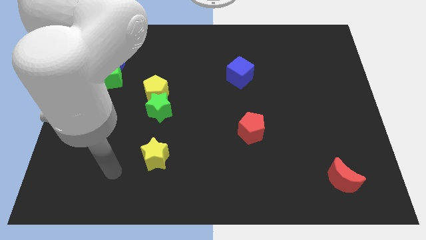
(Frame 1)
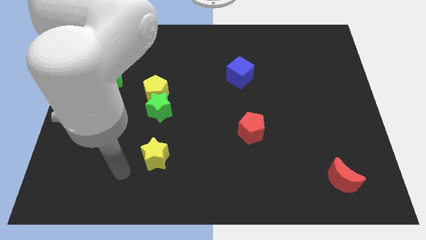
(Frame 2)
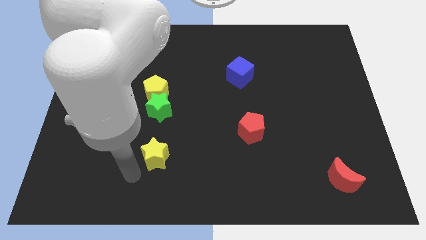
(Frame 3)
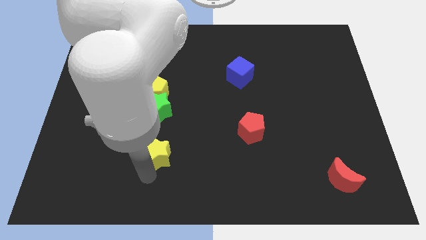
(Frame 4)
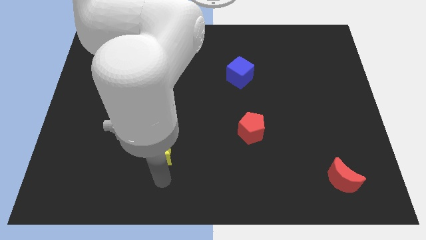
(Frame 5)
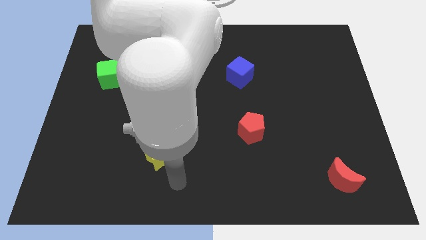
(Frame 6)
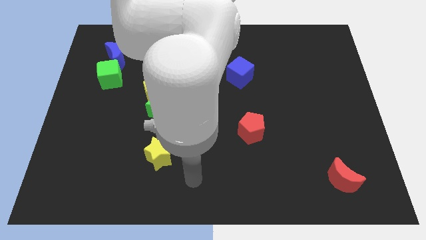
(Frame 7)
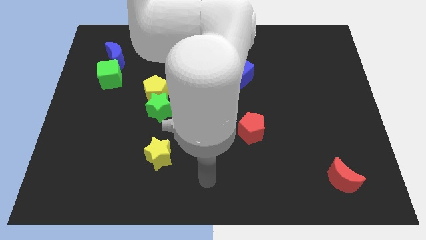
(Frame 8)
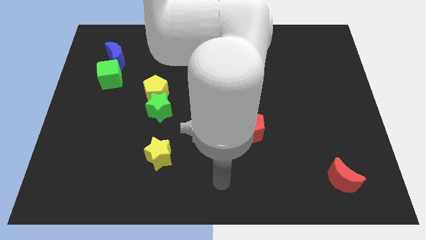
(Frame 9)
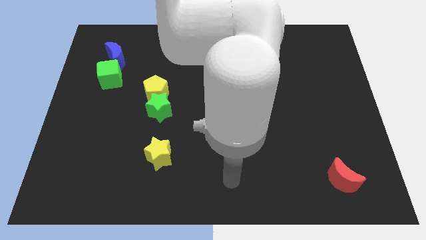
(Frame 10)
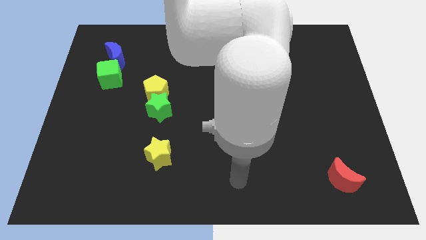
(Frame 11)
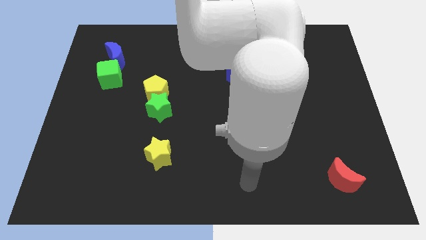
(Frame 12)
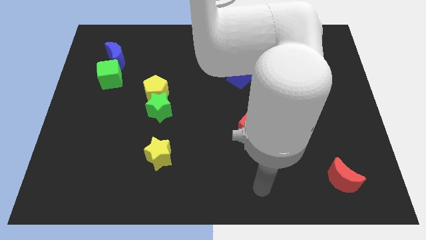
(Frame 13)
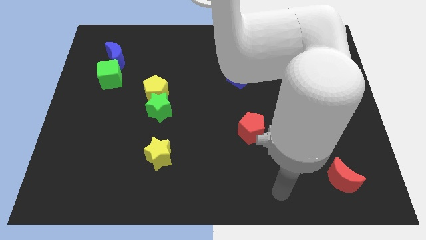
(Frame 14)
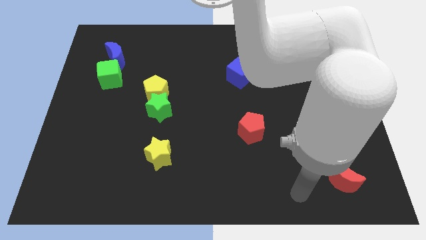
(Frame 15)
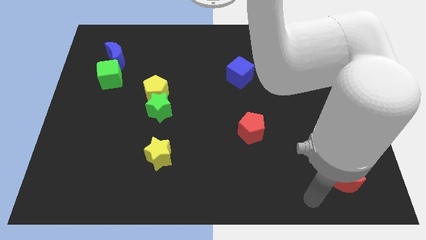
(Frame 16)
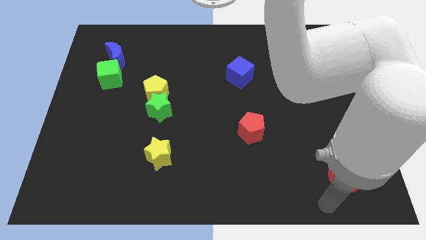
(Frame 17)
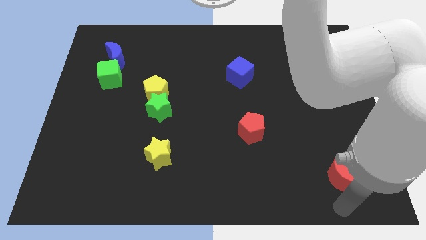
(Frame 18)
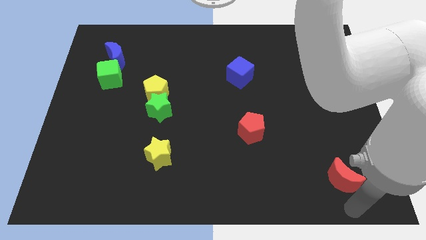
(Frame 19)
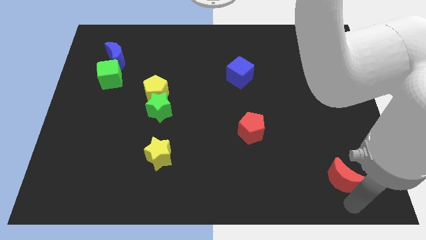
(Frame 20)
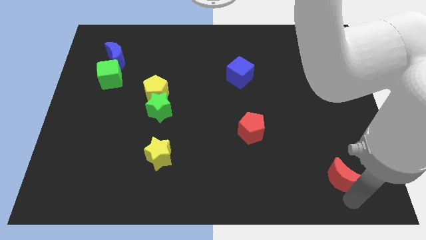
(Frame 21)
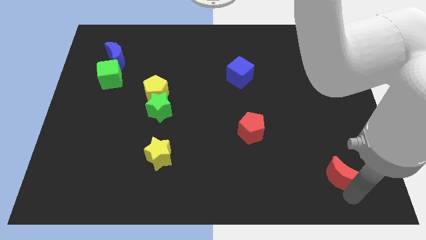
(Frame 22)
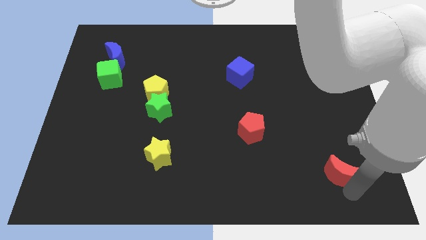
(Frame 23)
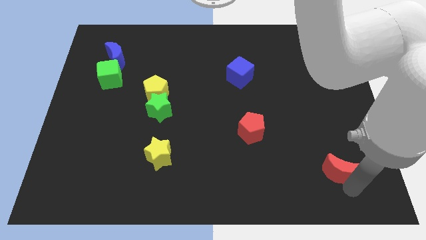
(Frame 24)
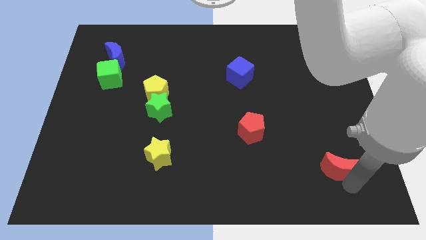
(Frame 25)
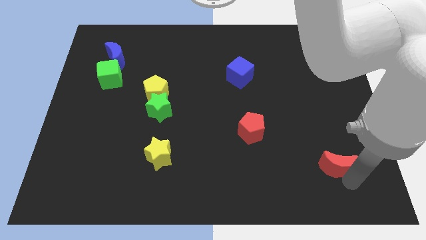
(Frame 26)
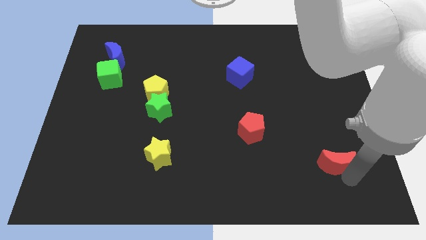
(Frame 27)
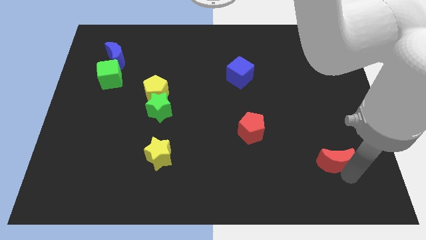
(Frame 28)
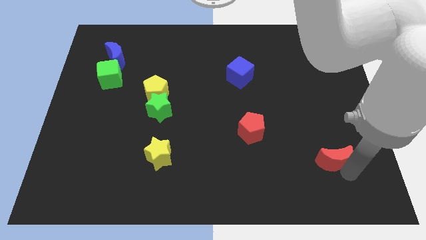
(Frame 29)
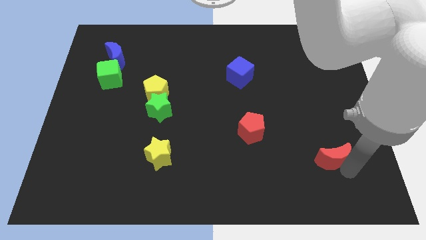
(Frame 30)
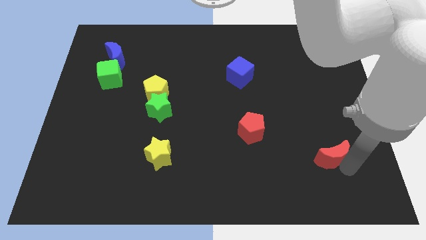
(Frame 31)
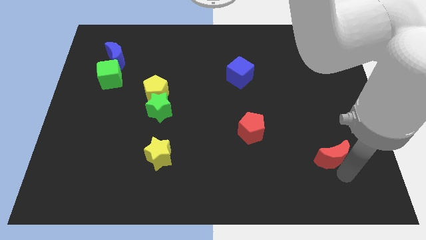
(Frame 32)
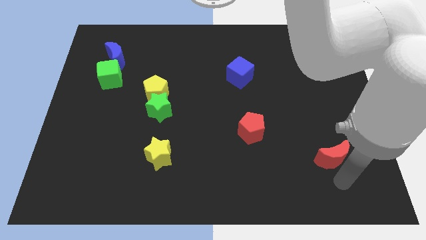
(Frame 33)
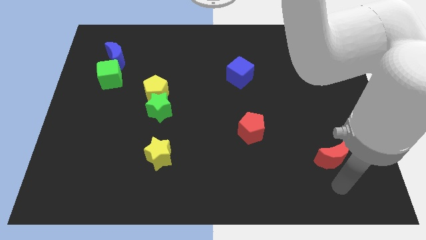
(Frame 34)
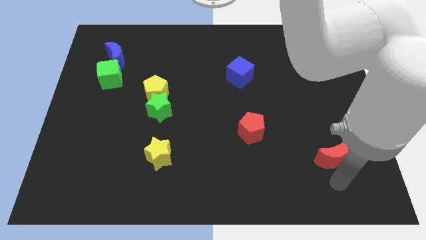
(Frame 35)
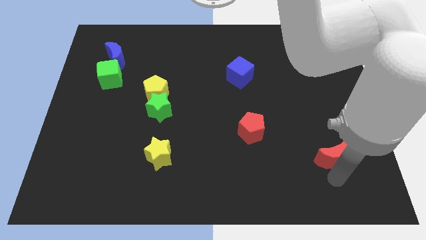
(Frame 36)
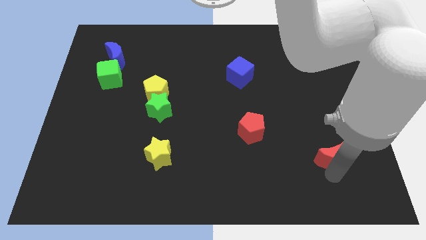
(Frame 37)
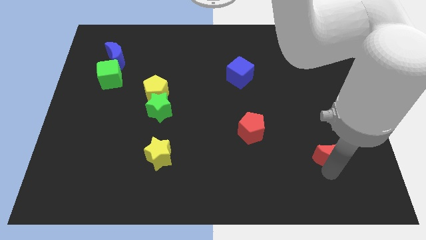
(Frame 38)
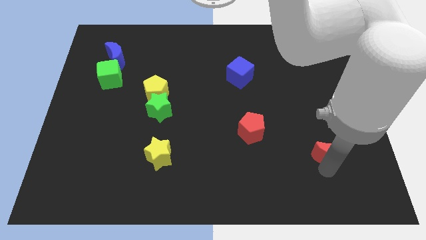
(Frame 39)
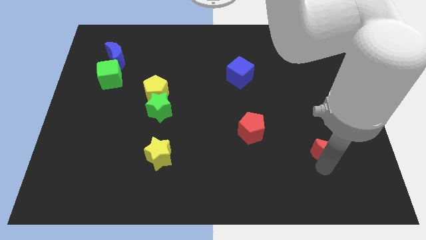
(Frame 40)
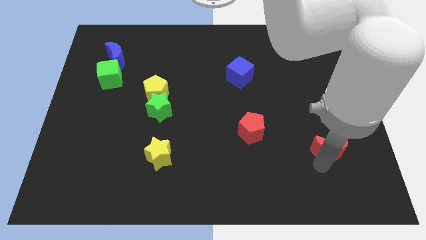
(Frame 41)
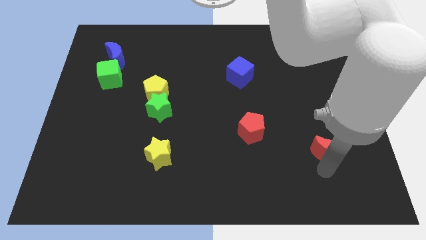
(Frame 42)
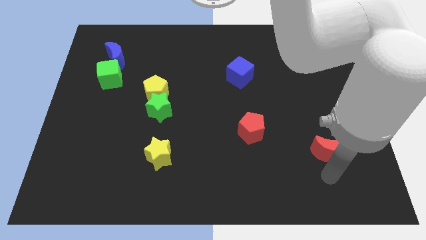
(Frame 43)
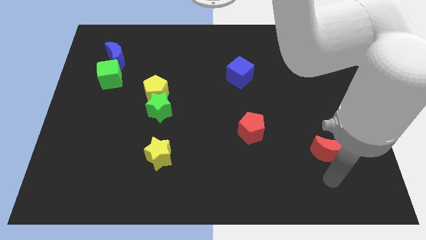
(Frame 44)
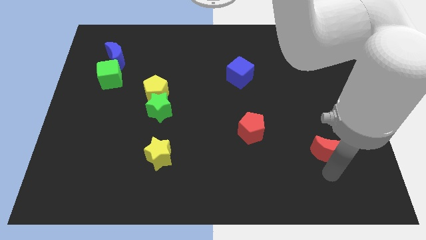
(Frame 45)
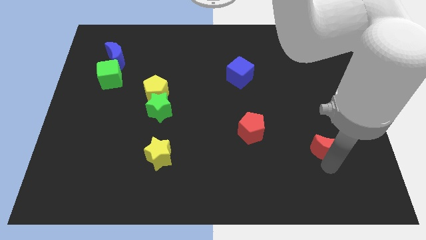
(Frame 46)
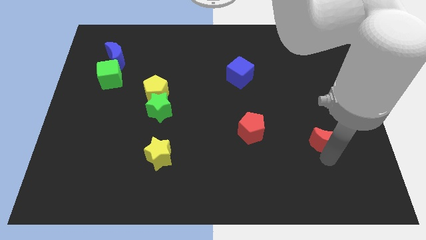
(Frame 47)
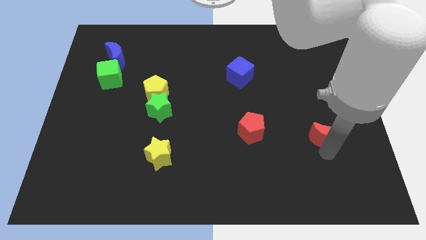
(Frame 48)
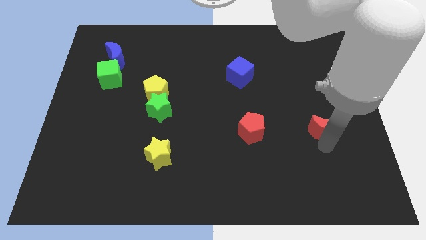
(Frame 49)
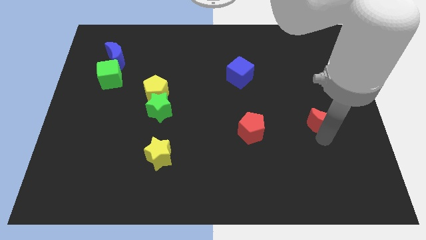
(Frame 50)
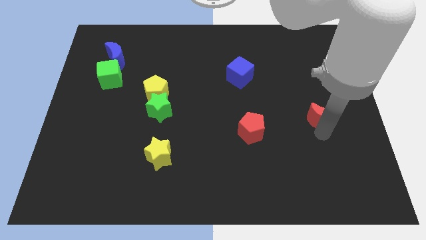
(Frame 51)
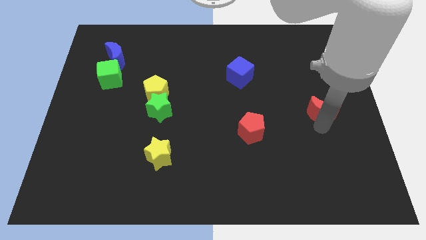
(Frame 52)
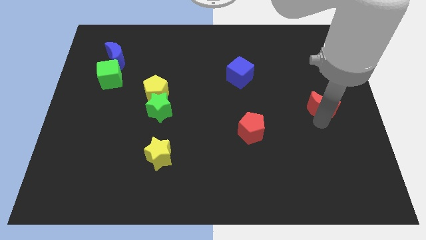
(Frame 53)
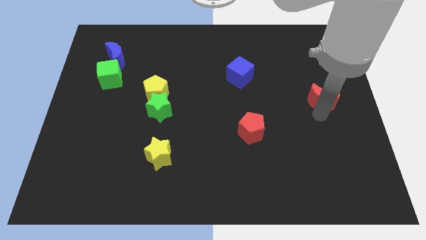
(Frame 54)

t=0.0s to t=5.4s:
push the red moon upwards

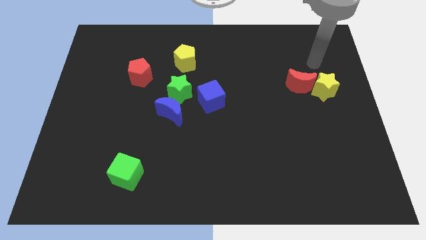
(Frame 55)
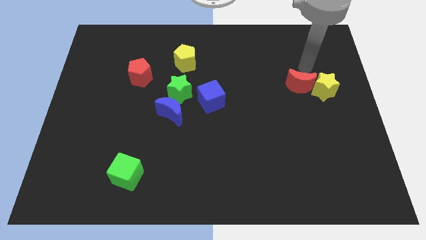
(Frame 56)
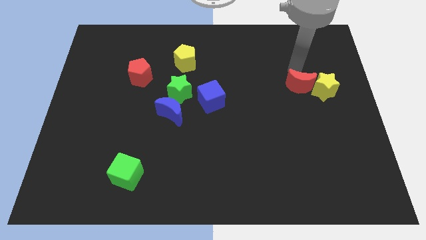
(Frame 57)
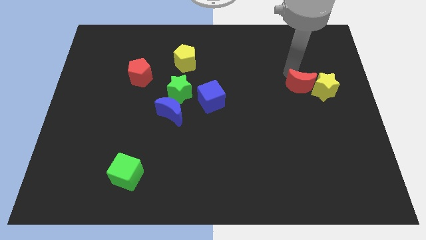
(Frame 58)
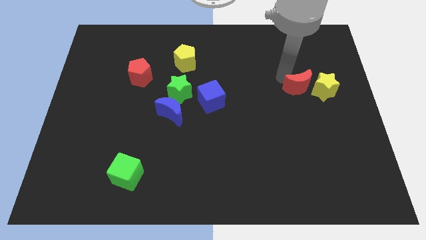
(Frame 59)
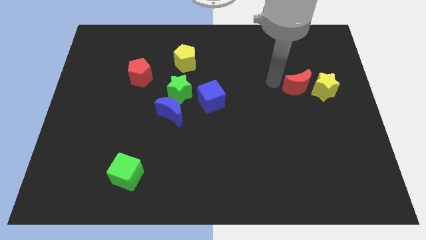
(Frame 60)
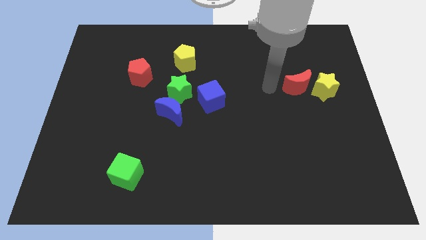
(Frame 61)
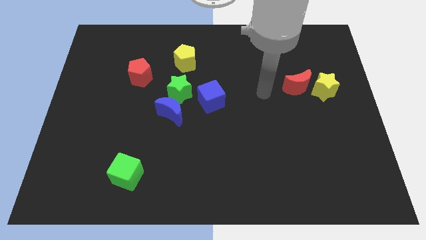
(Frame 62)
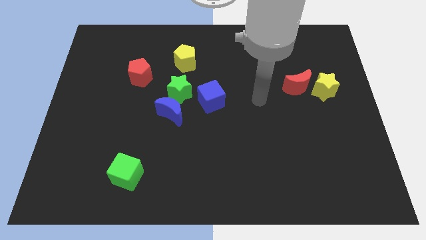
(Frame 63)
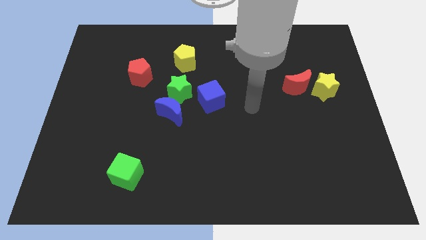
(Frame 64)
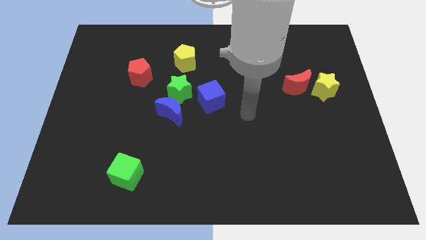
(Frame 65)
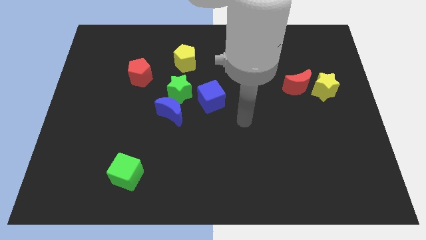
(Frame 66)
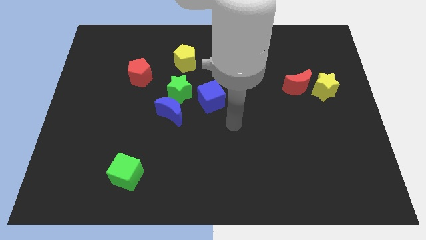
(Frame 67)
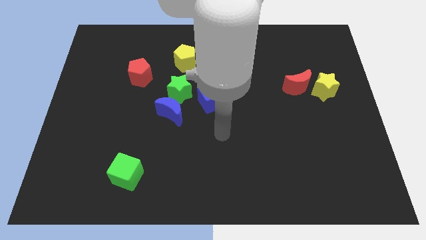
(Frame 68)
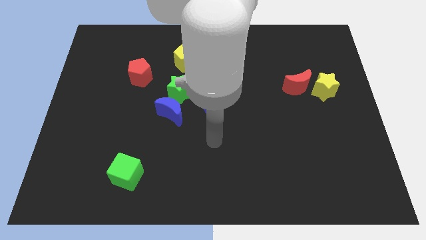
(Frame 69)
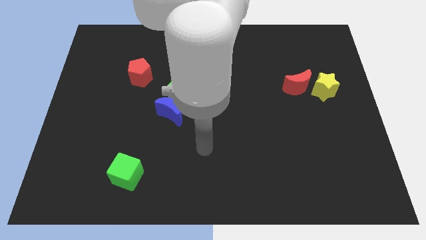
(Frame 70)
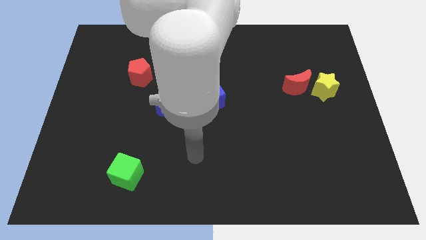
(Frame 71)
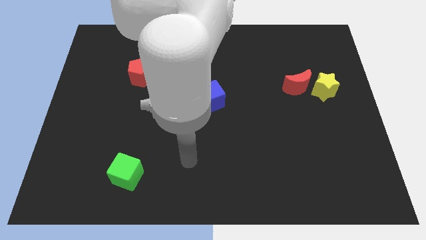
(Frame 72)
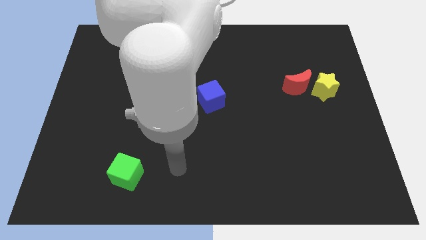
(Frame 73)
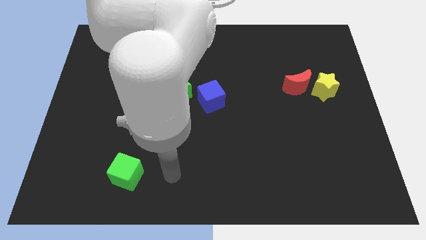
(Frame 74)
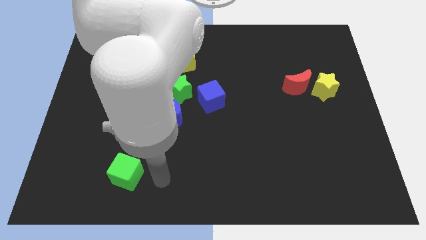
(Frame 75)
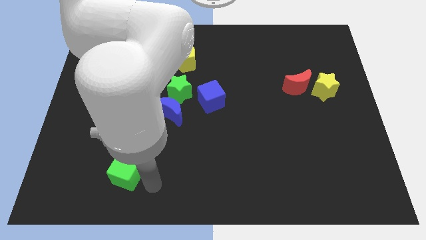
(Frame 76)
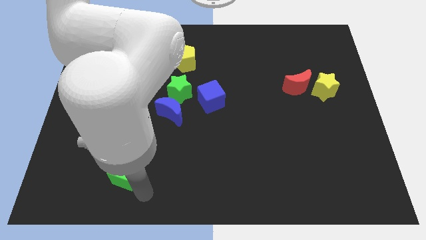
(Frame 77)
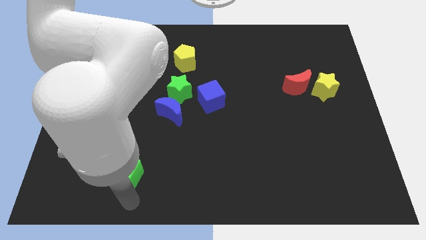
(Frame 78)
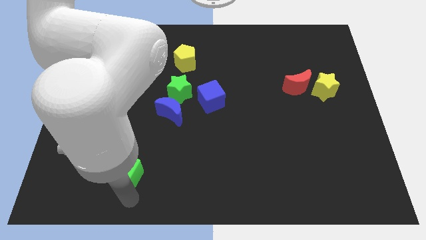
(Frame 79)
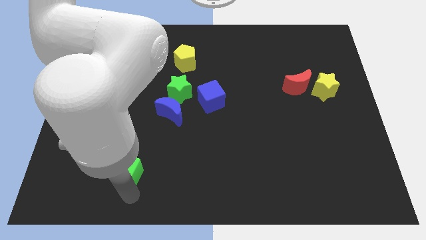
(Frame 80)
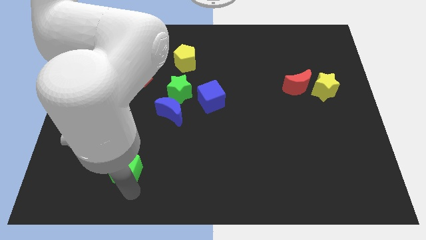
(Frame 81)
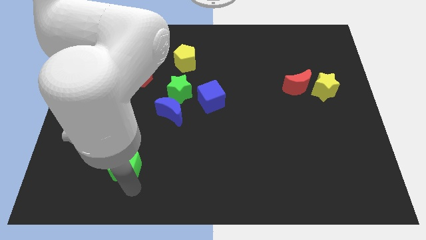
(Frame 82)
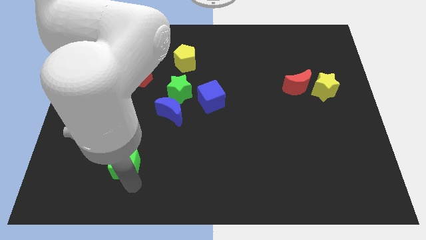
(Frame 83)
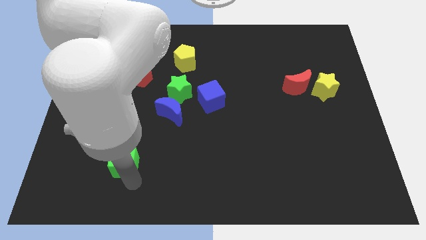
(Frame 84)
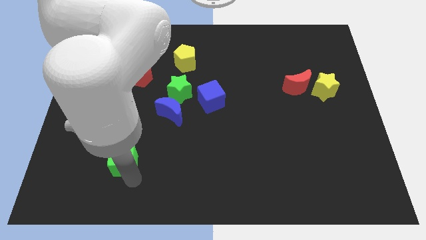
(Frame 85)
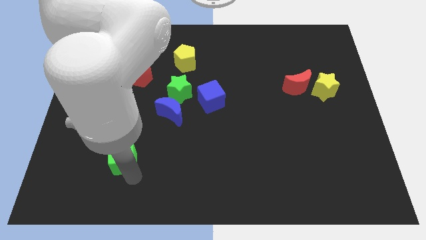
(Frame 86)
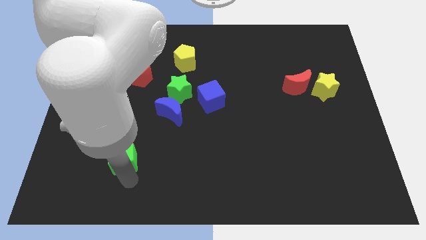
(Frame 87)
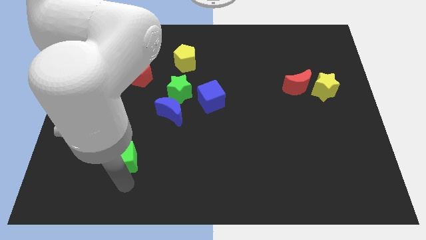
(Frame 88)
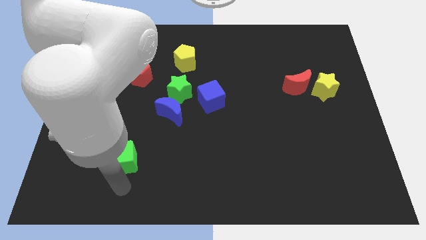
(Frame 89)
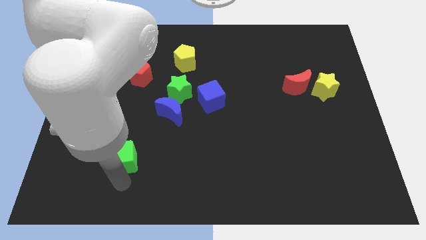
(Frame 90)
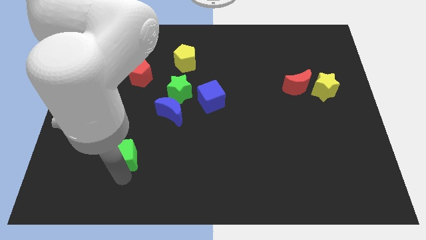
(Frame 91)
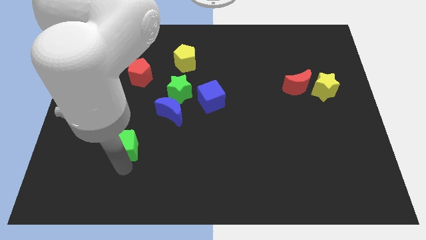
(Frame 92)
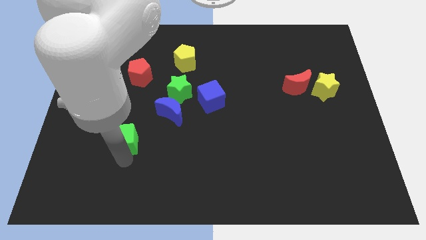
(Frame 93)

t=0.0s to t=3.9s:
slide the green cube up a little bit
